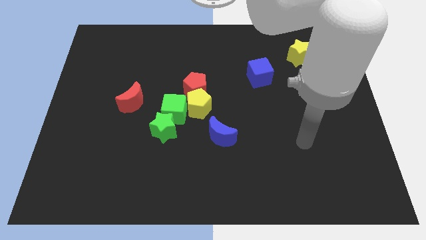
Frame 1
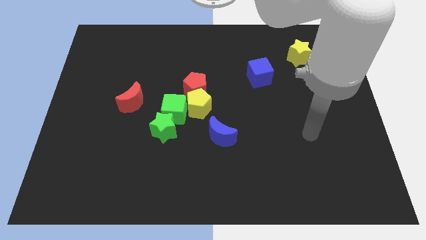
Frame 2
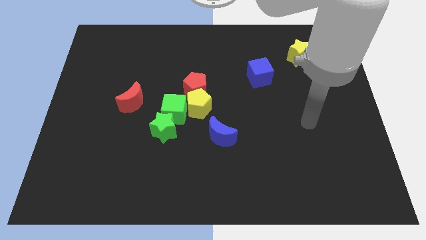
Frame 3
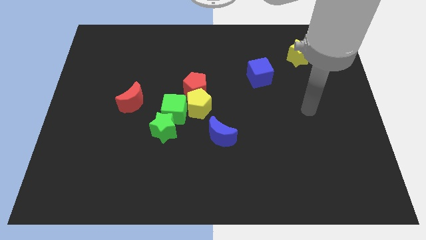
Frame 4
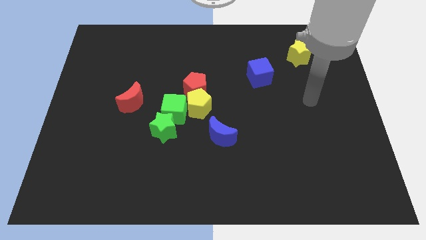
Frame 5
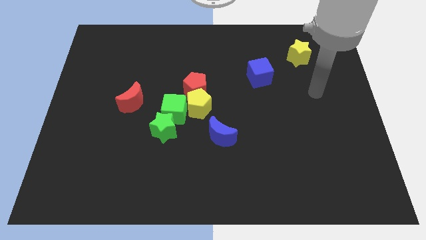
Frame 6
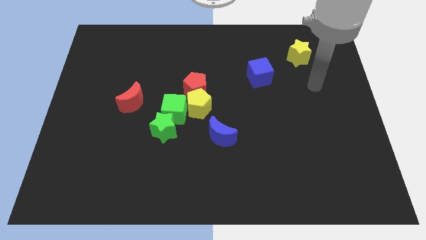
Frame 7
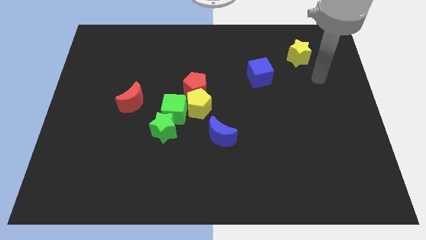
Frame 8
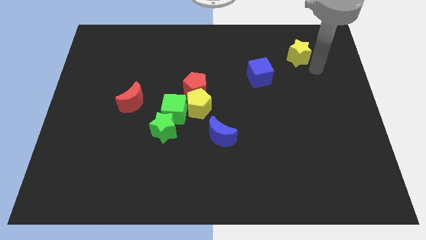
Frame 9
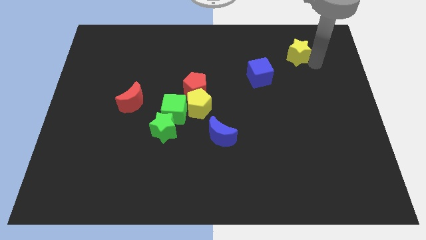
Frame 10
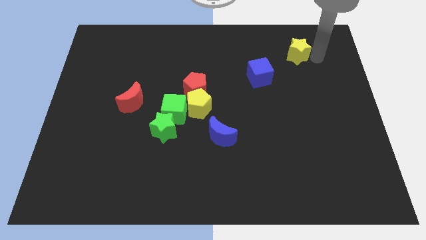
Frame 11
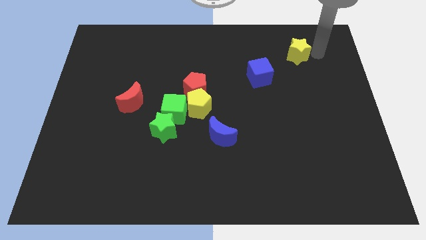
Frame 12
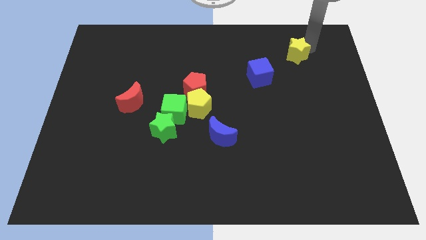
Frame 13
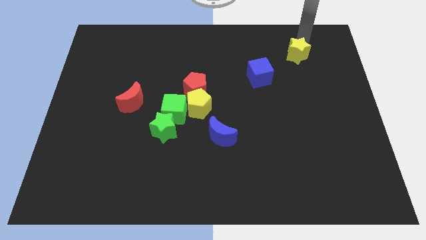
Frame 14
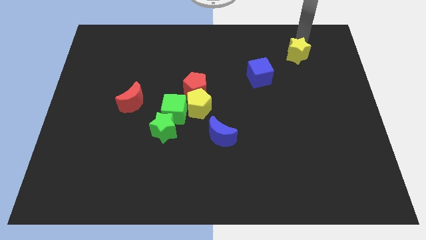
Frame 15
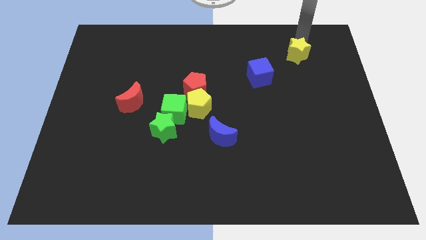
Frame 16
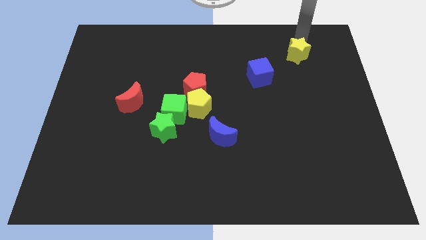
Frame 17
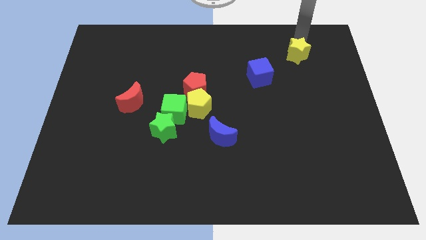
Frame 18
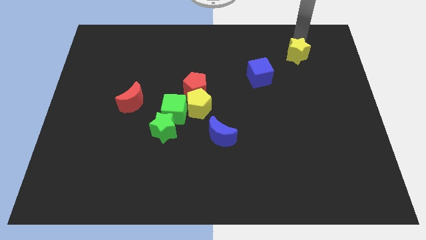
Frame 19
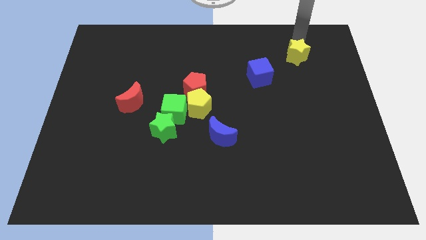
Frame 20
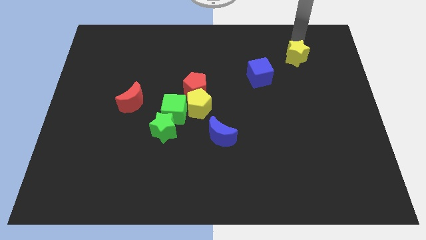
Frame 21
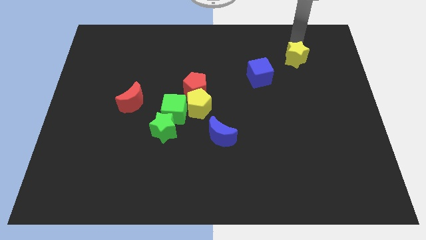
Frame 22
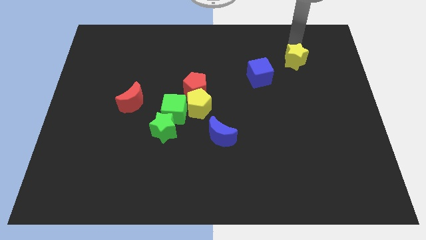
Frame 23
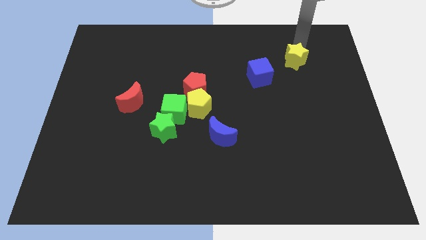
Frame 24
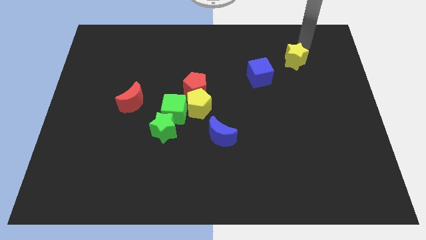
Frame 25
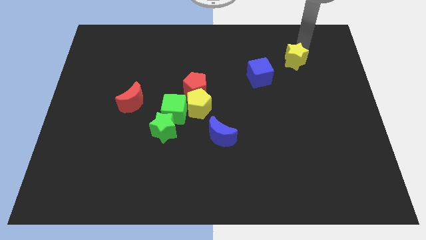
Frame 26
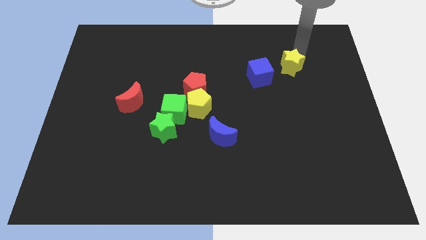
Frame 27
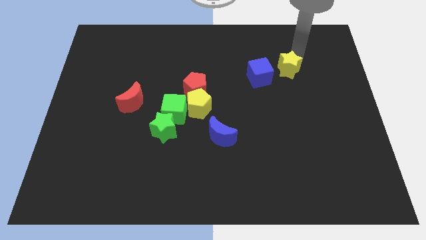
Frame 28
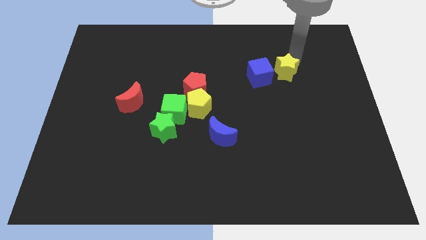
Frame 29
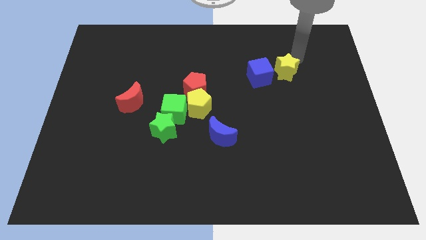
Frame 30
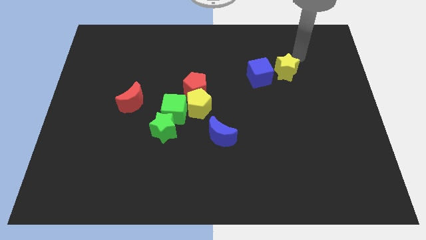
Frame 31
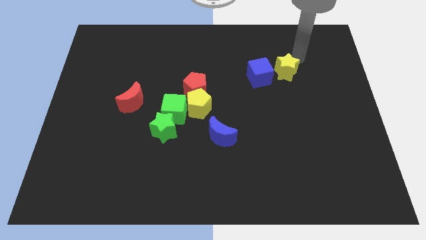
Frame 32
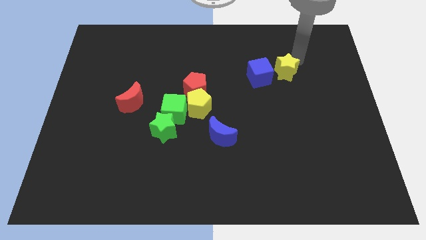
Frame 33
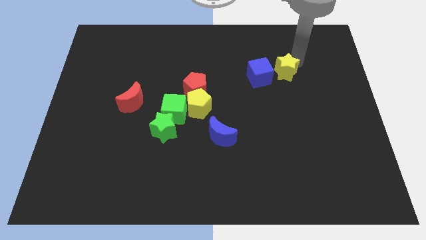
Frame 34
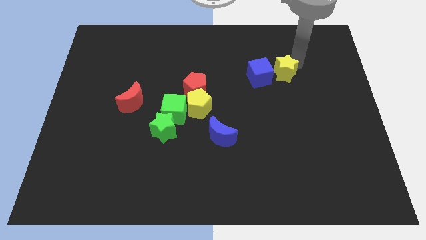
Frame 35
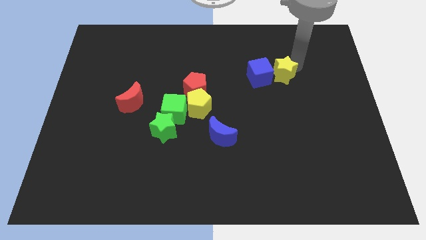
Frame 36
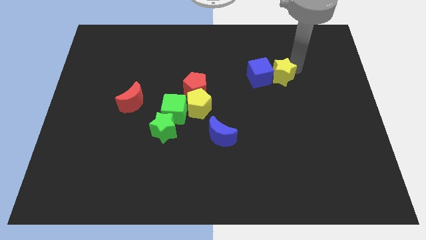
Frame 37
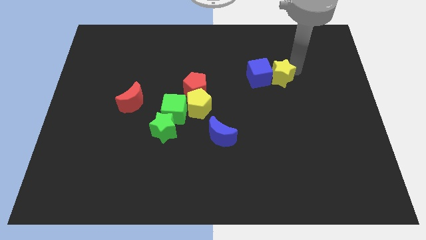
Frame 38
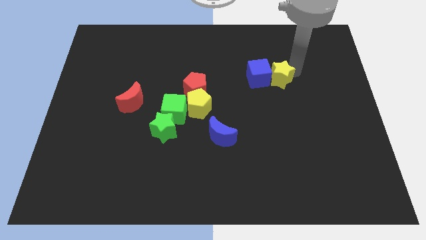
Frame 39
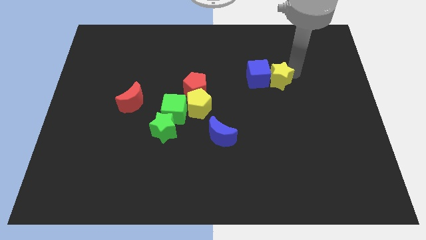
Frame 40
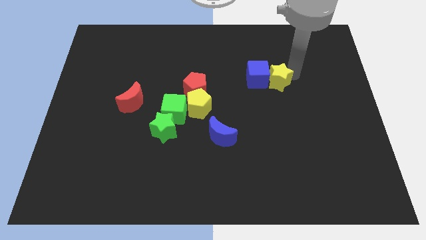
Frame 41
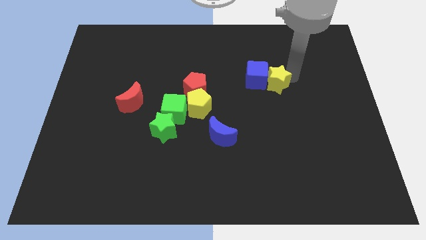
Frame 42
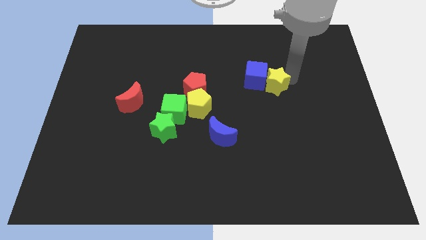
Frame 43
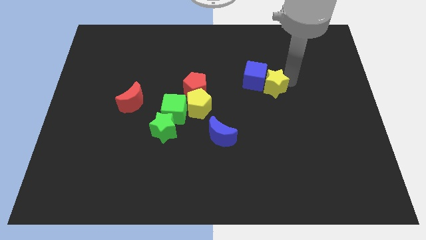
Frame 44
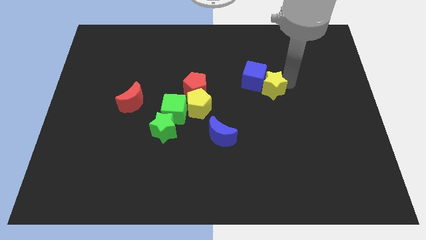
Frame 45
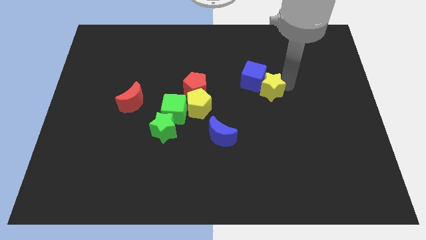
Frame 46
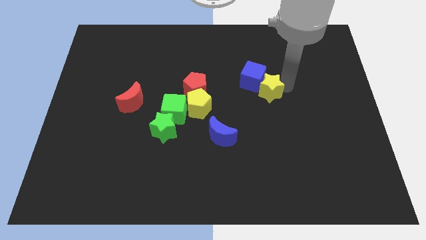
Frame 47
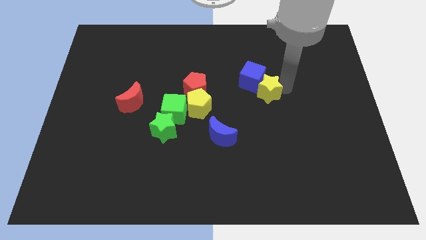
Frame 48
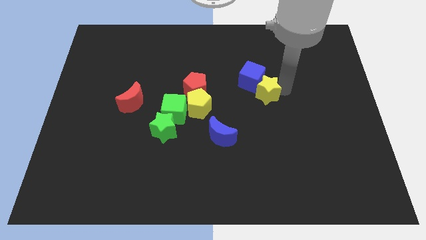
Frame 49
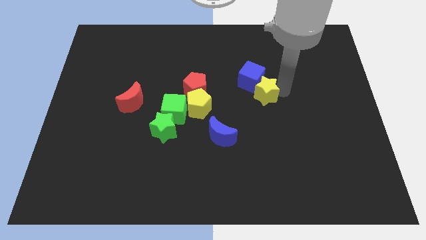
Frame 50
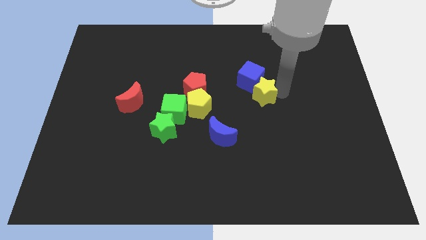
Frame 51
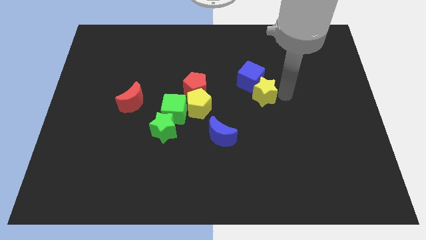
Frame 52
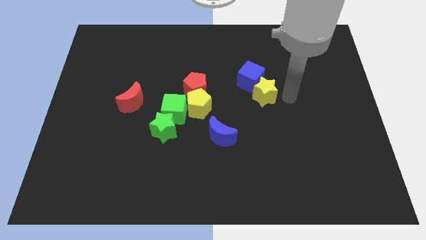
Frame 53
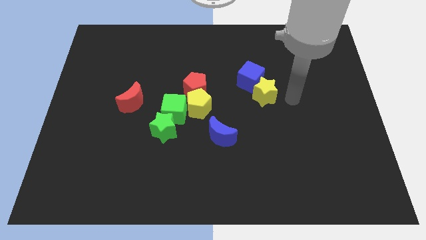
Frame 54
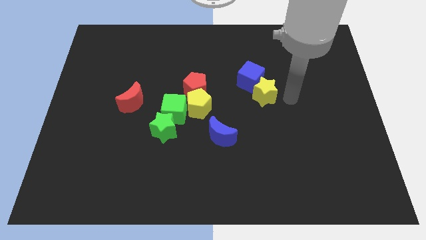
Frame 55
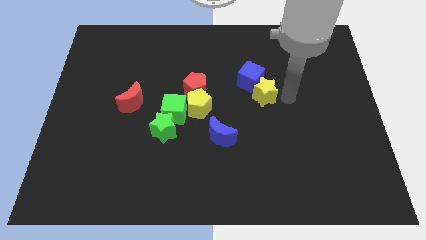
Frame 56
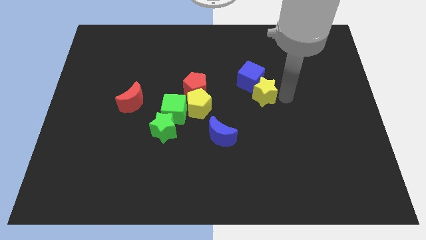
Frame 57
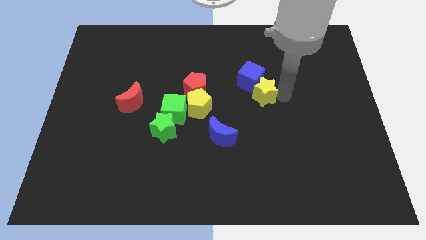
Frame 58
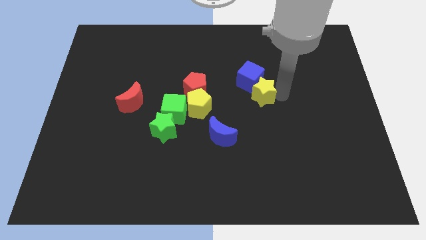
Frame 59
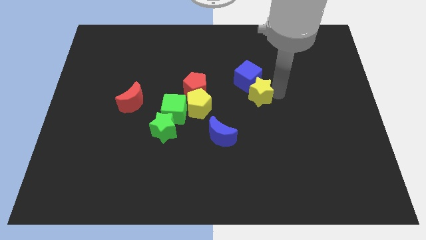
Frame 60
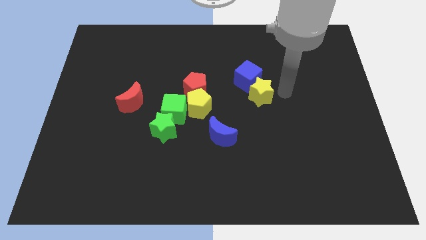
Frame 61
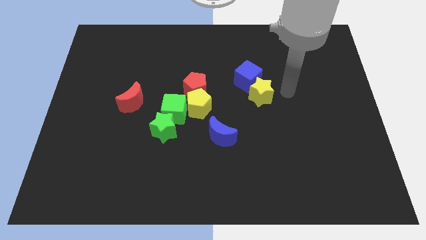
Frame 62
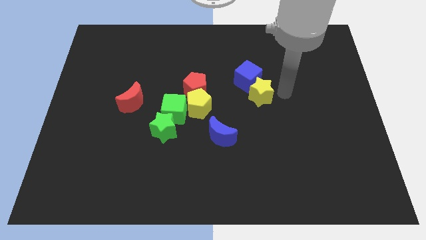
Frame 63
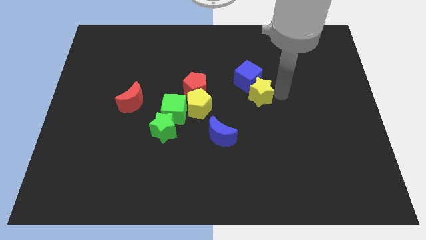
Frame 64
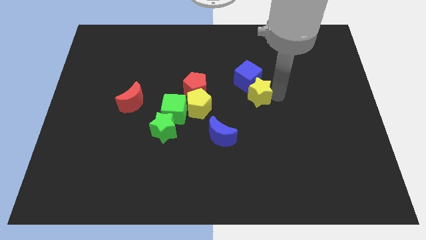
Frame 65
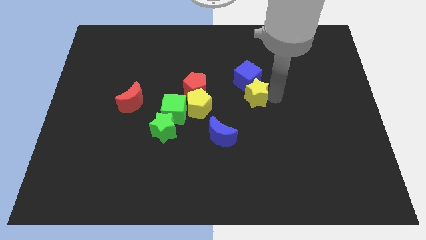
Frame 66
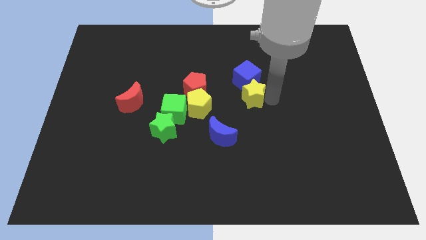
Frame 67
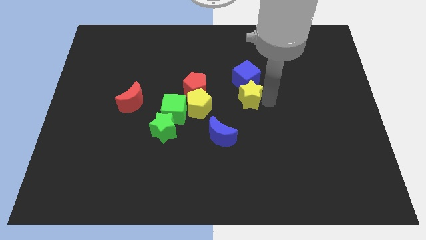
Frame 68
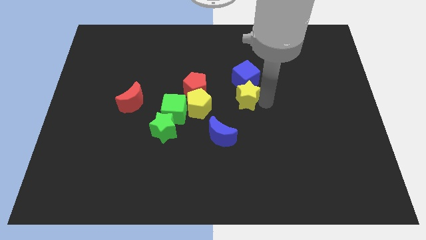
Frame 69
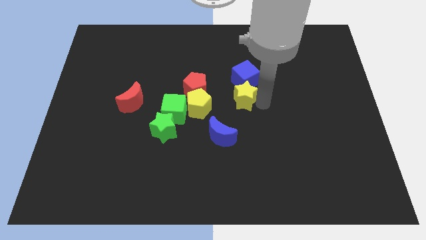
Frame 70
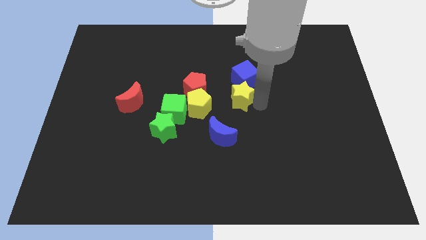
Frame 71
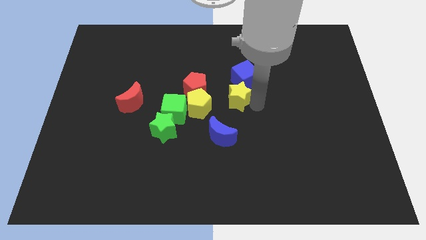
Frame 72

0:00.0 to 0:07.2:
push the yellow star to the top of the blue moon

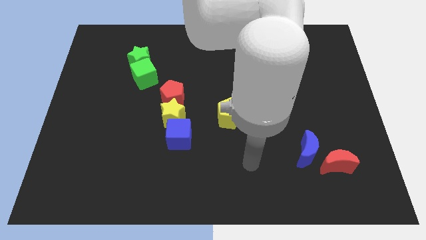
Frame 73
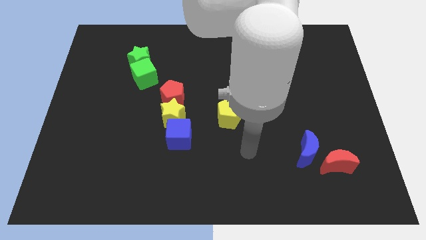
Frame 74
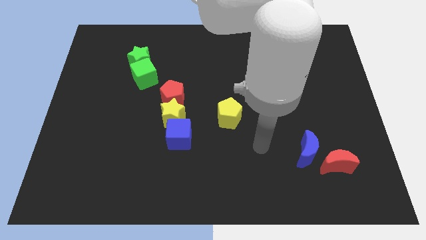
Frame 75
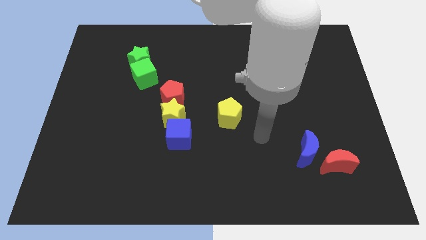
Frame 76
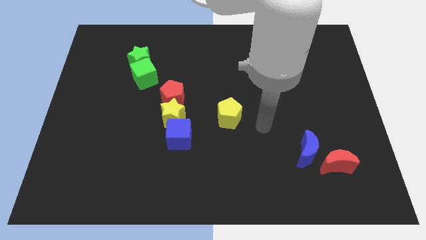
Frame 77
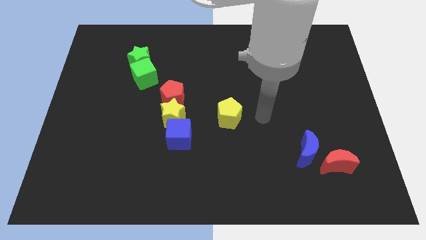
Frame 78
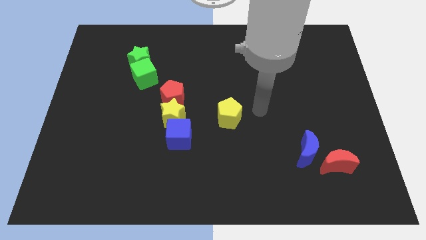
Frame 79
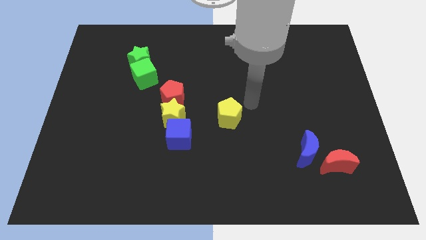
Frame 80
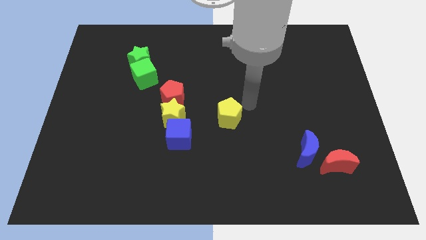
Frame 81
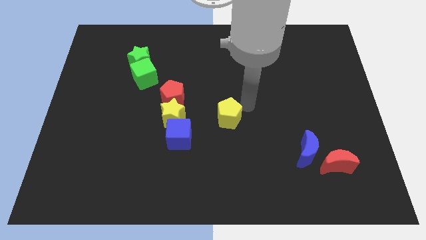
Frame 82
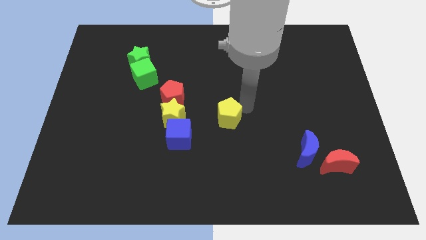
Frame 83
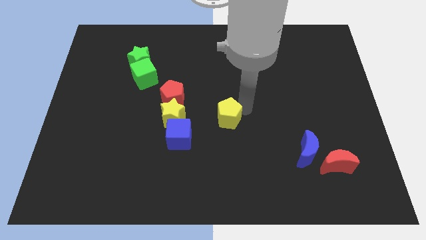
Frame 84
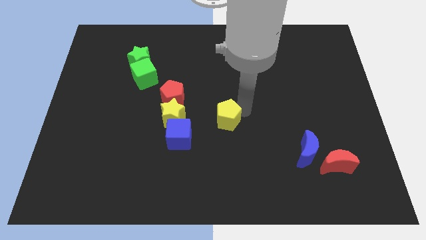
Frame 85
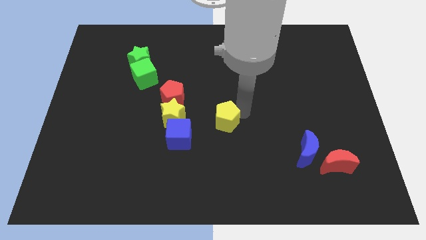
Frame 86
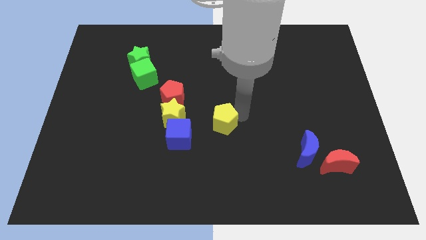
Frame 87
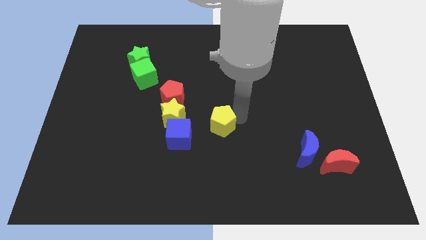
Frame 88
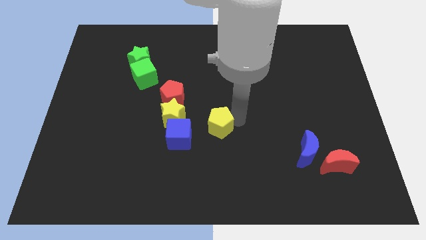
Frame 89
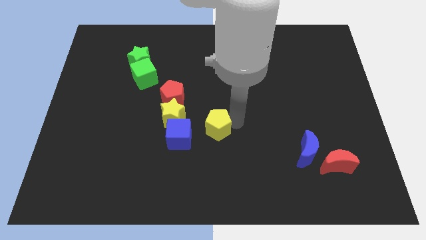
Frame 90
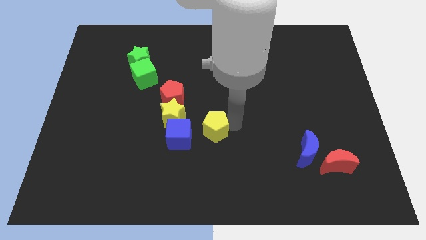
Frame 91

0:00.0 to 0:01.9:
put the yellow pentagon to the bottom right side of the yellow star
